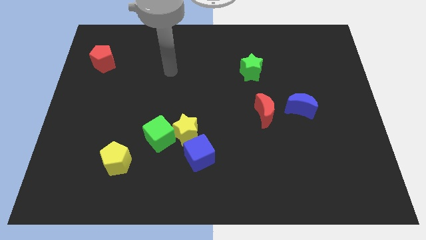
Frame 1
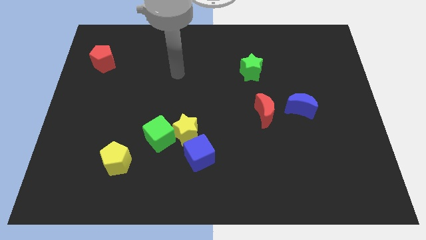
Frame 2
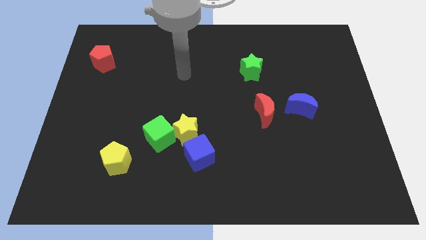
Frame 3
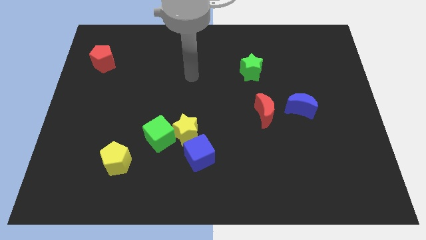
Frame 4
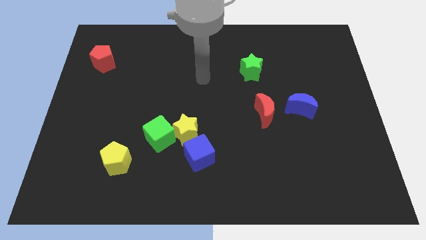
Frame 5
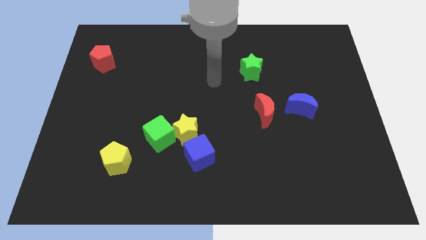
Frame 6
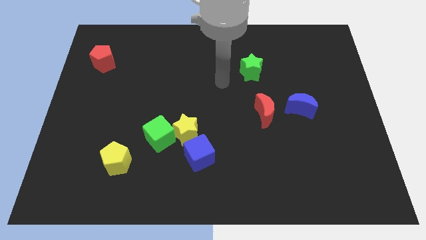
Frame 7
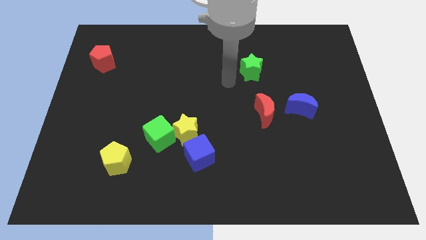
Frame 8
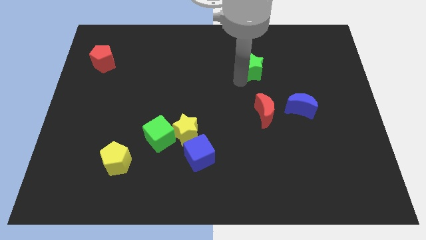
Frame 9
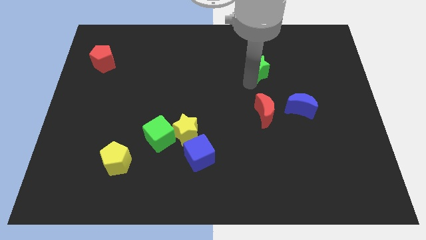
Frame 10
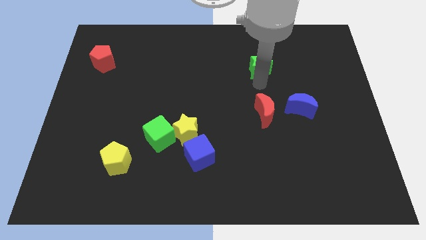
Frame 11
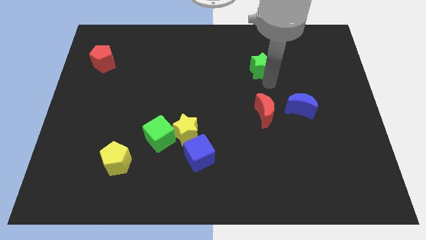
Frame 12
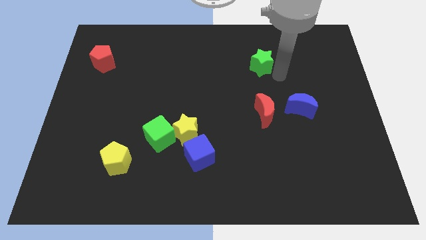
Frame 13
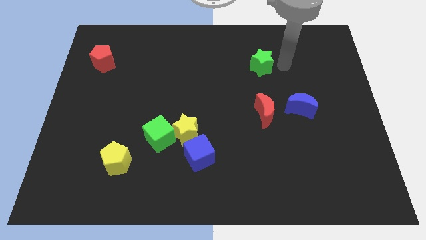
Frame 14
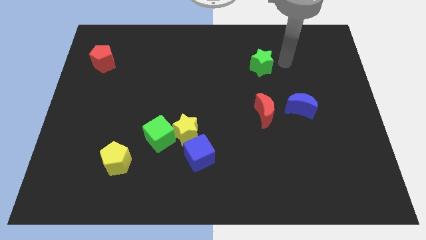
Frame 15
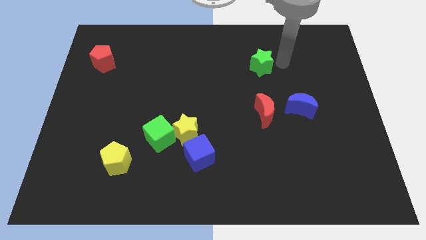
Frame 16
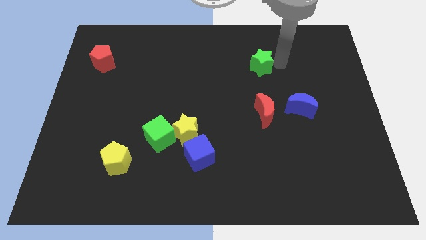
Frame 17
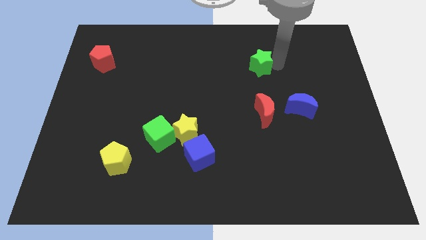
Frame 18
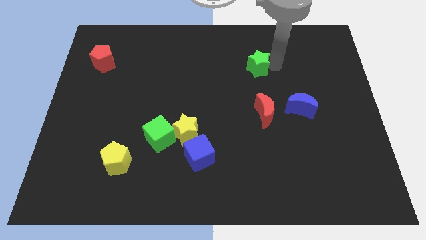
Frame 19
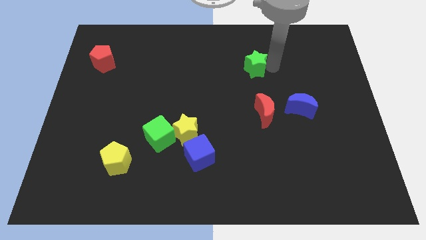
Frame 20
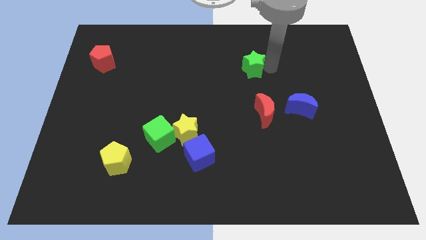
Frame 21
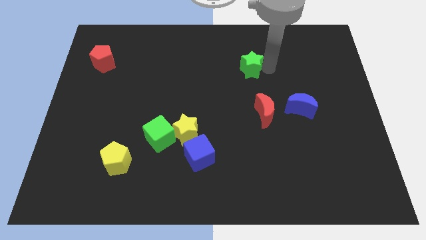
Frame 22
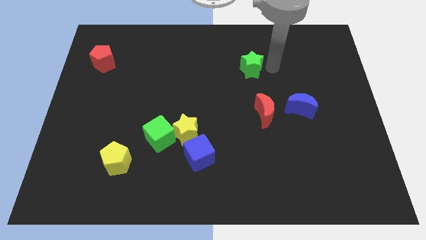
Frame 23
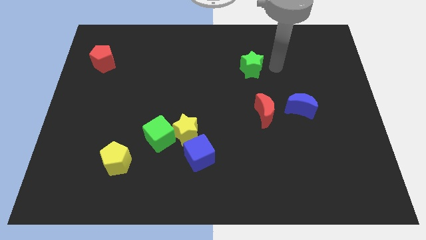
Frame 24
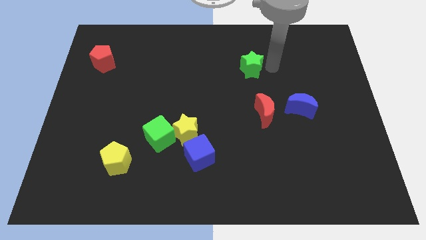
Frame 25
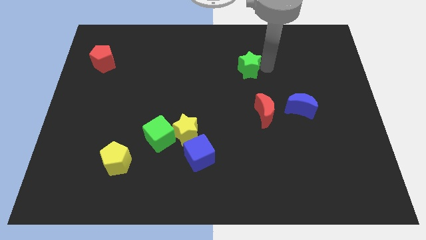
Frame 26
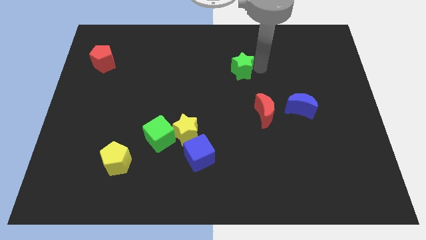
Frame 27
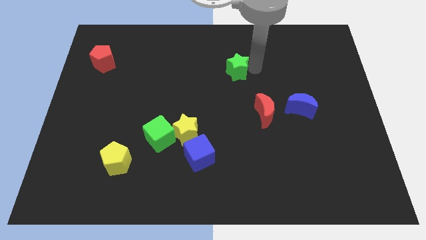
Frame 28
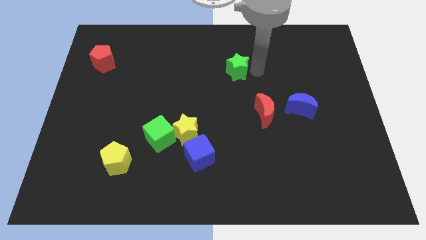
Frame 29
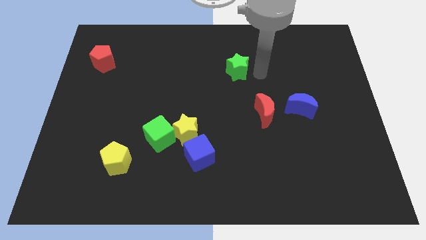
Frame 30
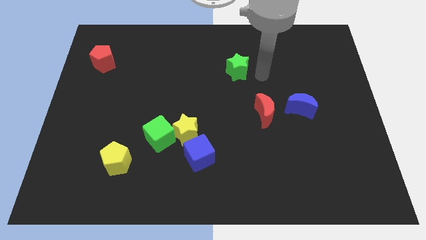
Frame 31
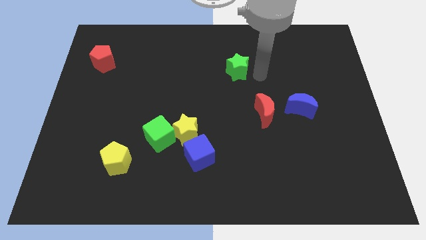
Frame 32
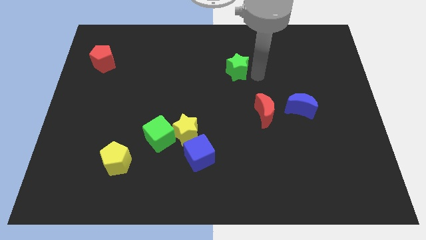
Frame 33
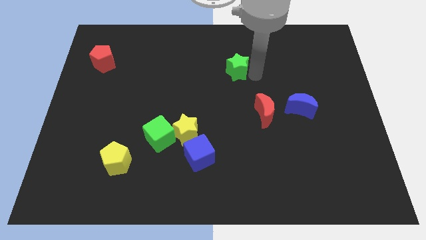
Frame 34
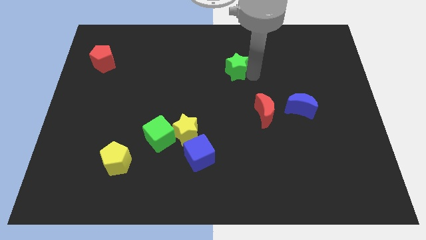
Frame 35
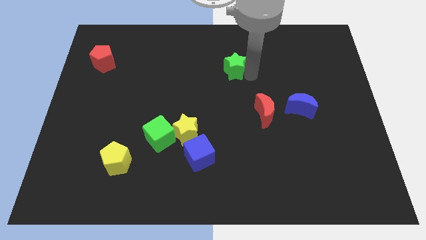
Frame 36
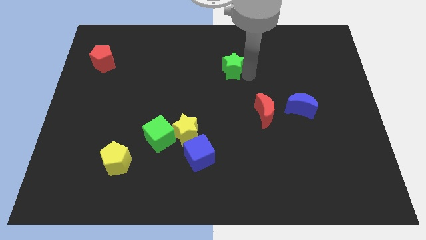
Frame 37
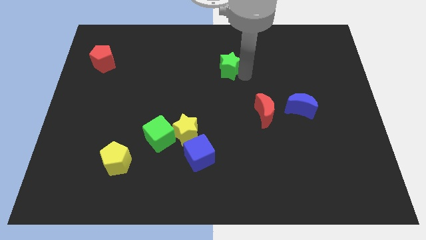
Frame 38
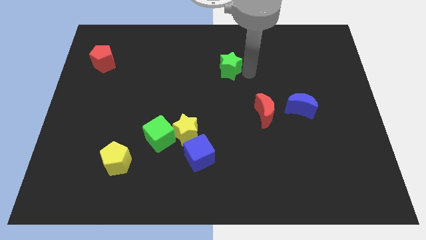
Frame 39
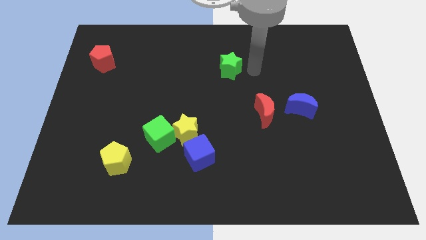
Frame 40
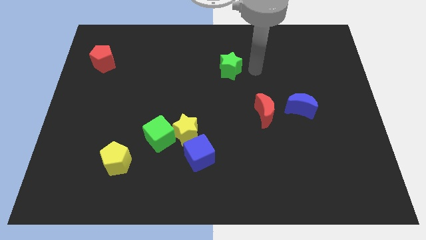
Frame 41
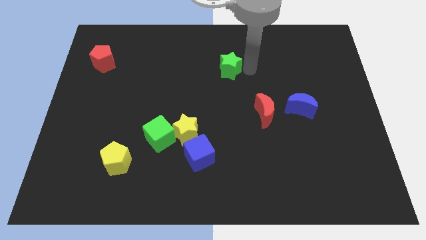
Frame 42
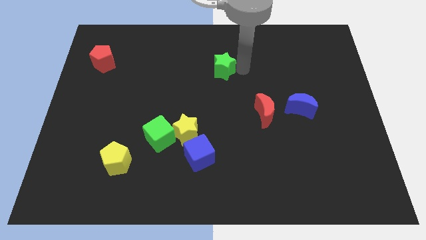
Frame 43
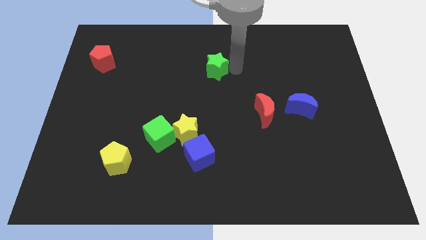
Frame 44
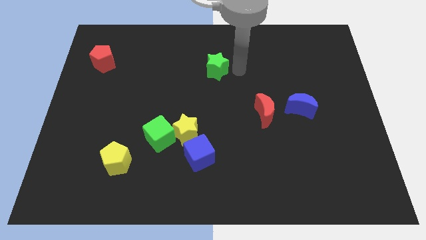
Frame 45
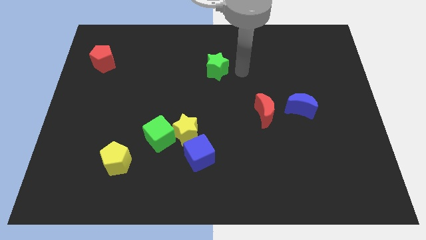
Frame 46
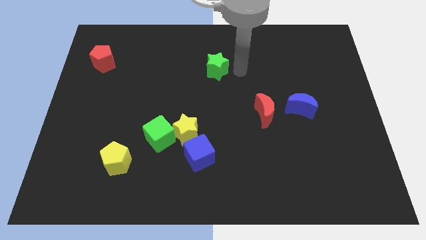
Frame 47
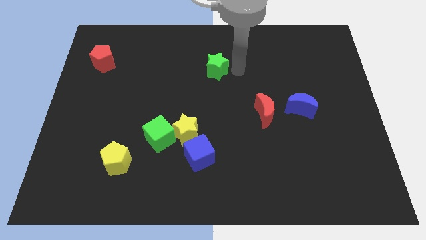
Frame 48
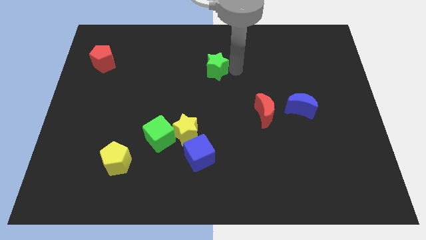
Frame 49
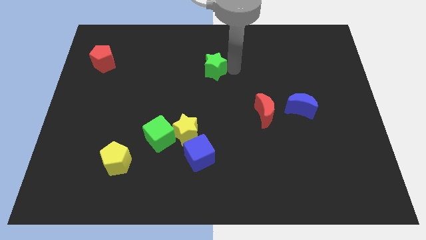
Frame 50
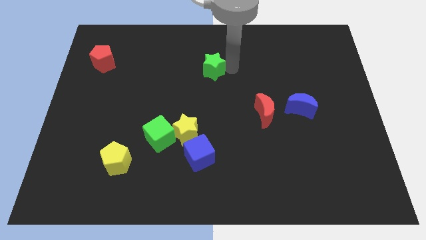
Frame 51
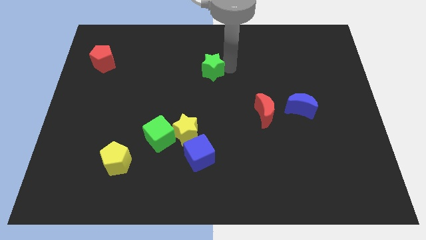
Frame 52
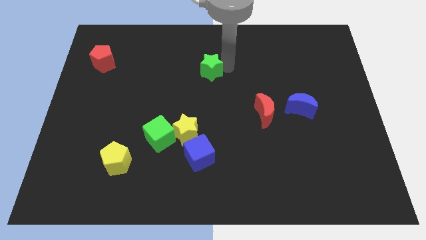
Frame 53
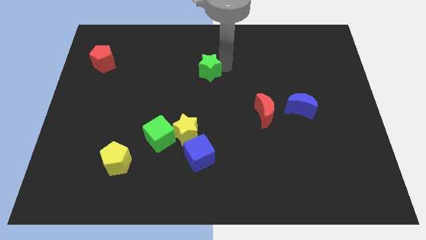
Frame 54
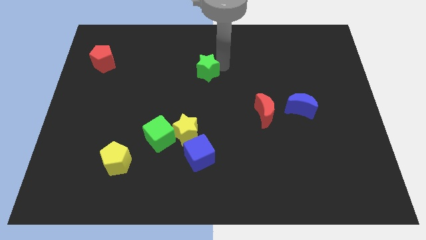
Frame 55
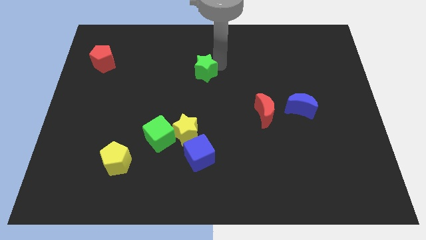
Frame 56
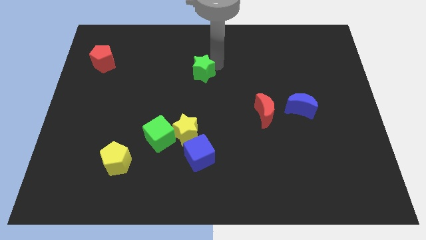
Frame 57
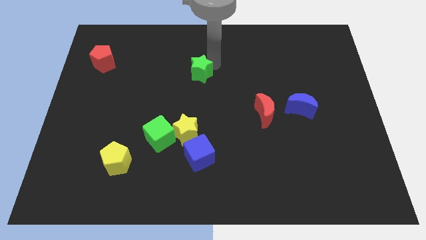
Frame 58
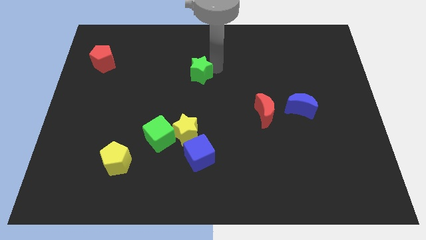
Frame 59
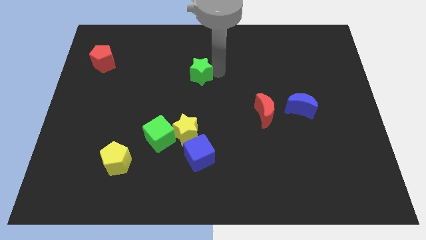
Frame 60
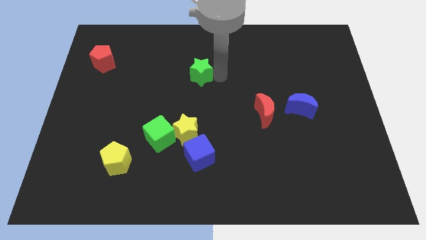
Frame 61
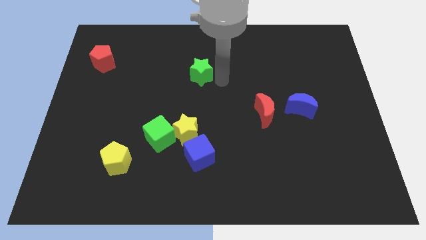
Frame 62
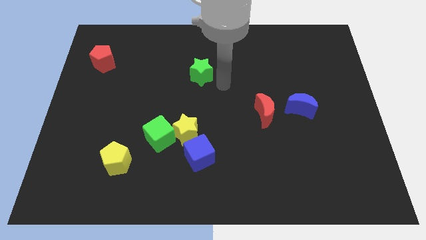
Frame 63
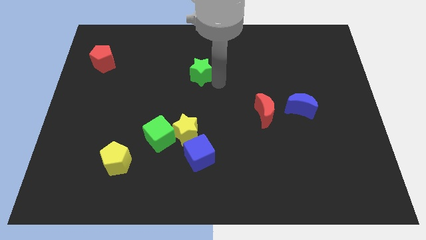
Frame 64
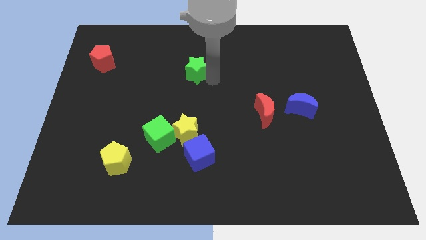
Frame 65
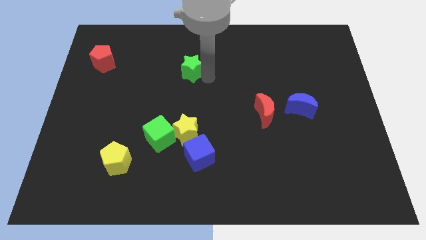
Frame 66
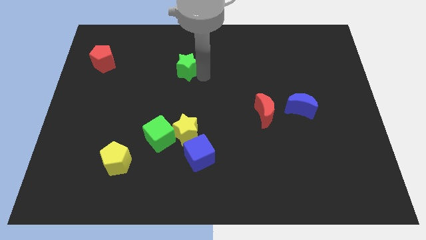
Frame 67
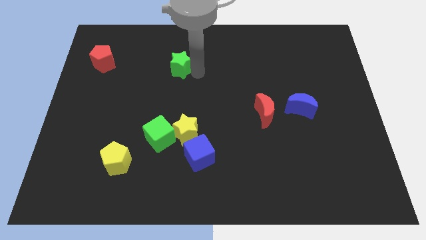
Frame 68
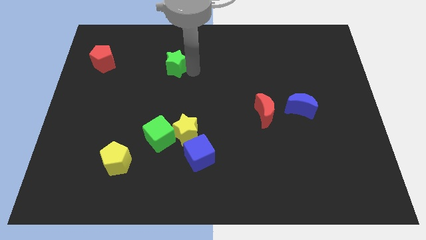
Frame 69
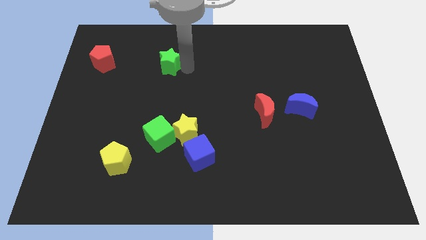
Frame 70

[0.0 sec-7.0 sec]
push the green star left

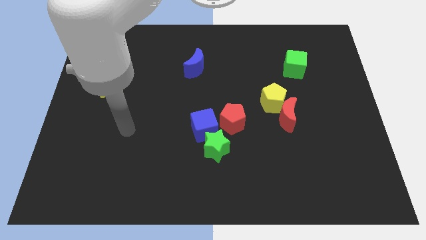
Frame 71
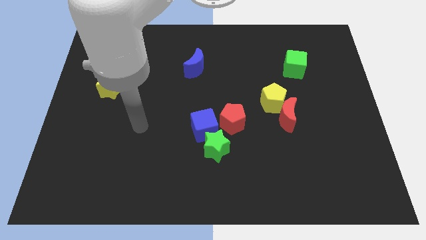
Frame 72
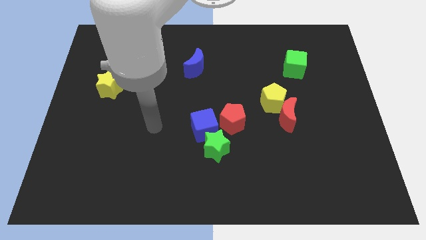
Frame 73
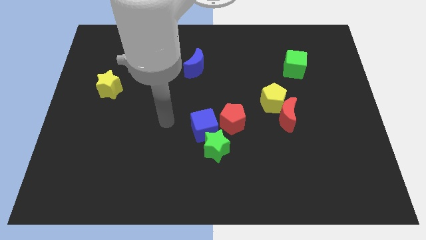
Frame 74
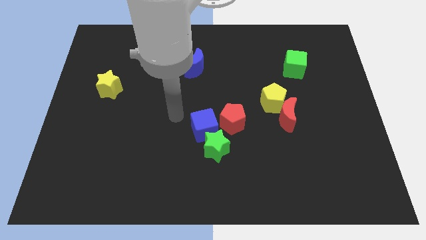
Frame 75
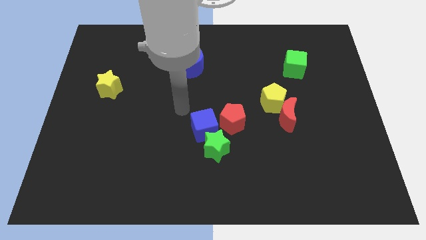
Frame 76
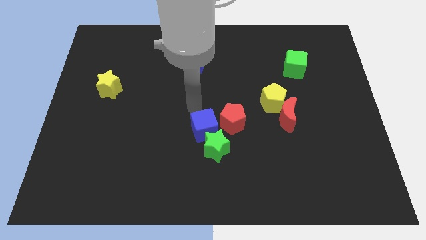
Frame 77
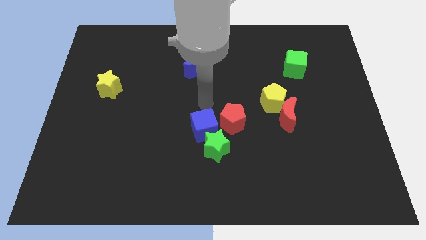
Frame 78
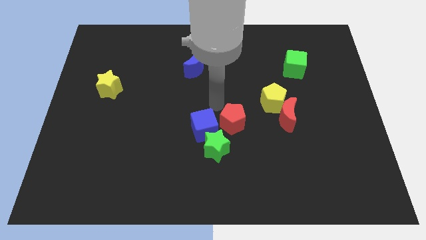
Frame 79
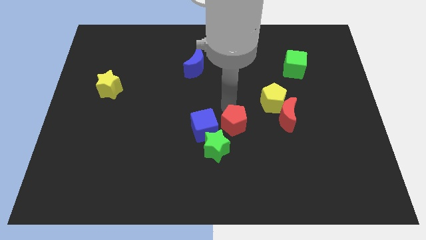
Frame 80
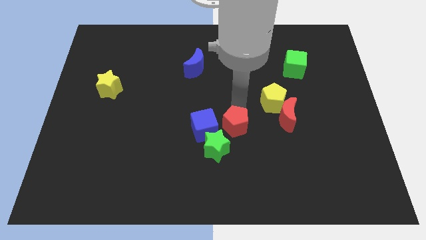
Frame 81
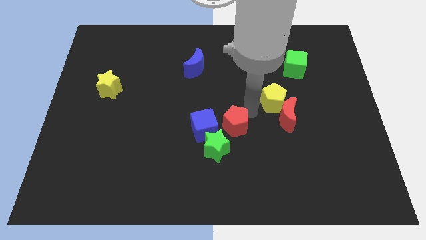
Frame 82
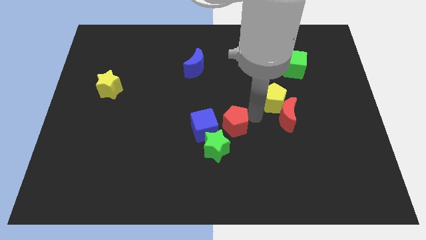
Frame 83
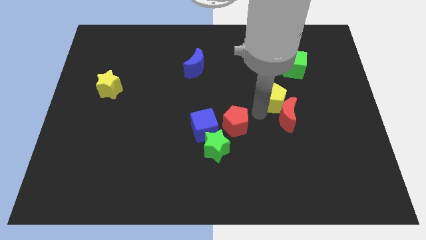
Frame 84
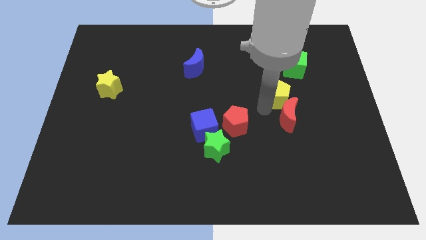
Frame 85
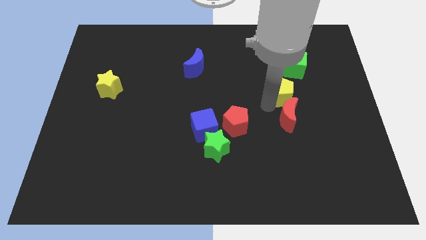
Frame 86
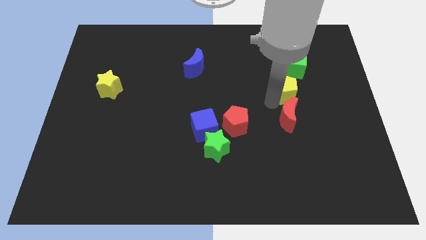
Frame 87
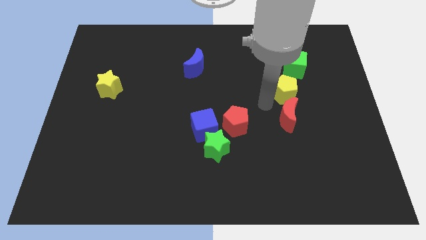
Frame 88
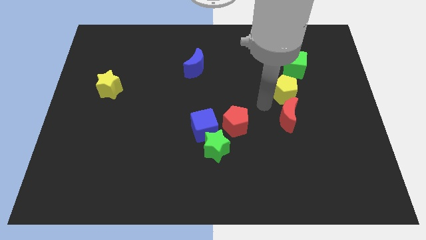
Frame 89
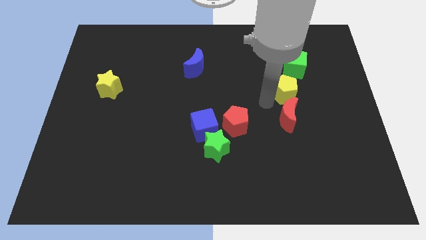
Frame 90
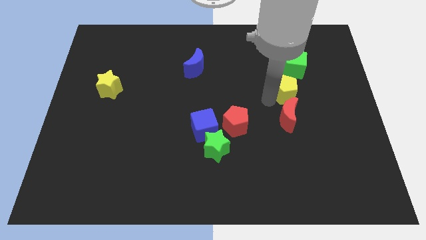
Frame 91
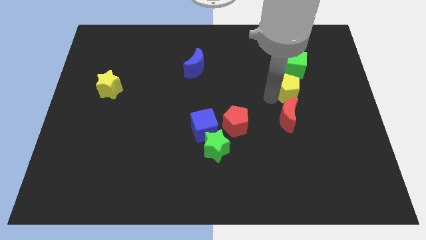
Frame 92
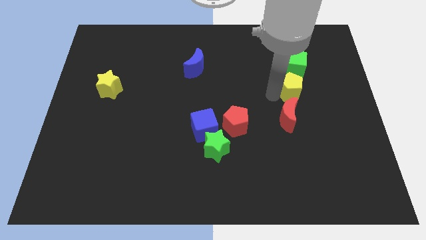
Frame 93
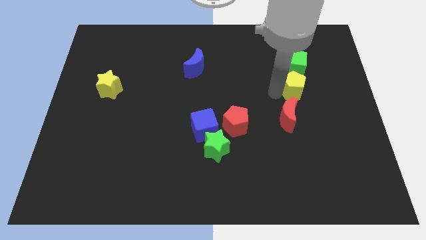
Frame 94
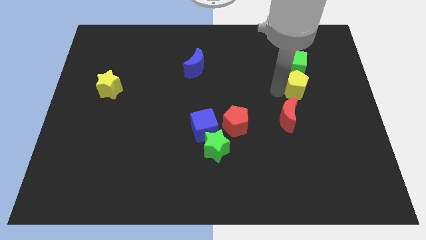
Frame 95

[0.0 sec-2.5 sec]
slide the yellow pentagon a little upwards and right
